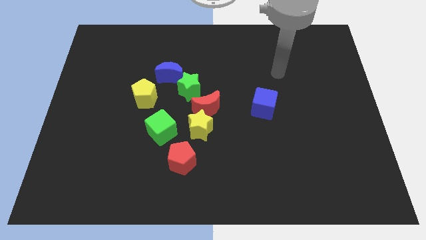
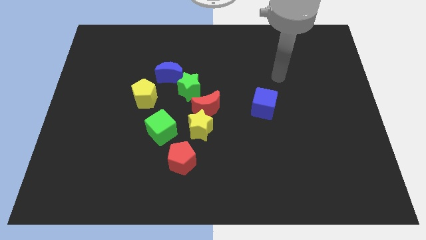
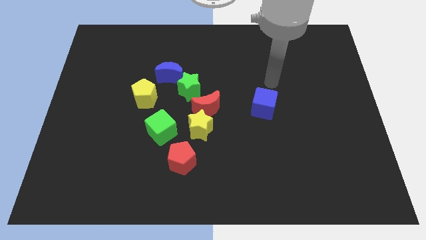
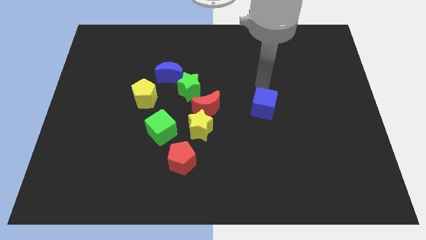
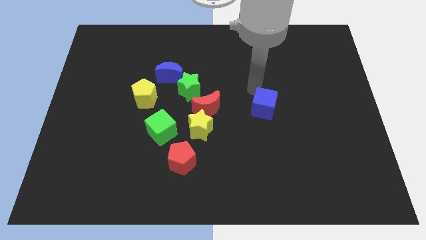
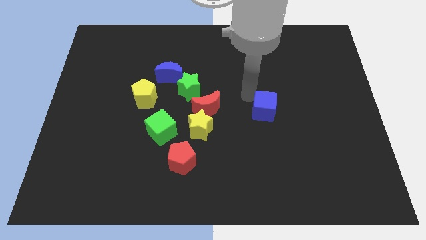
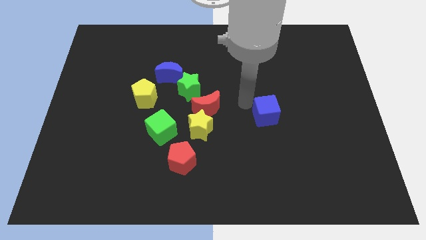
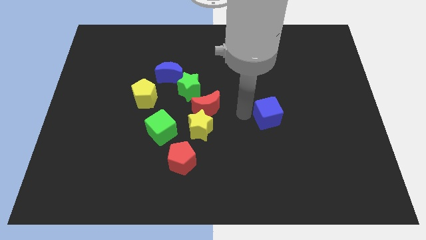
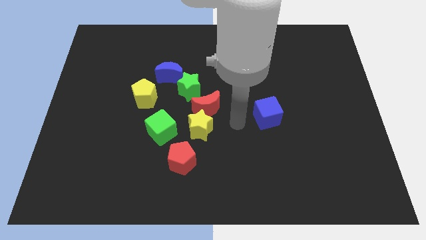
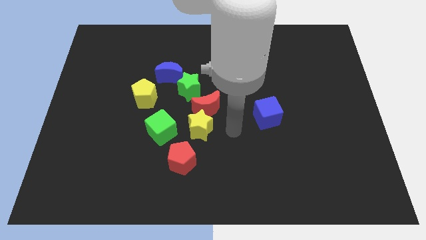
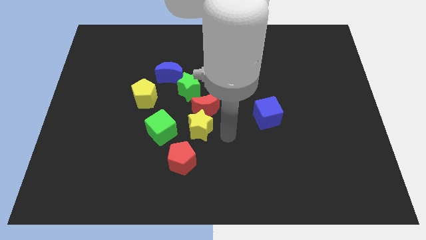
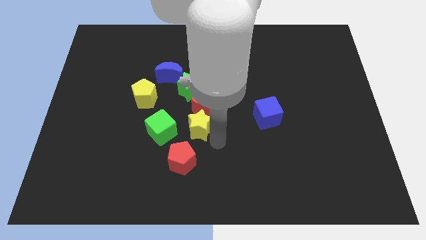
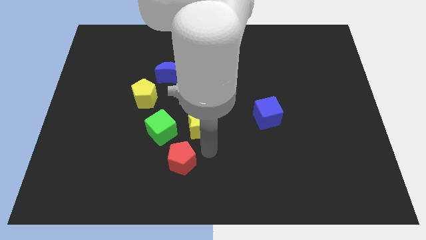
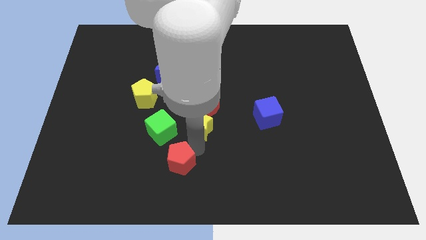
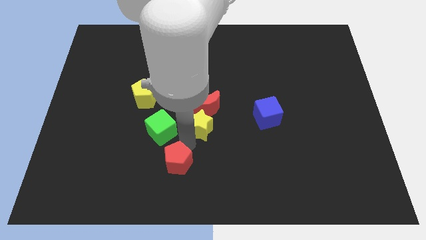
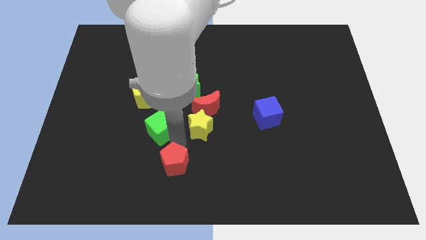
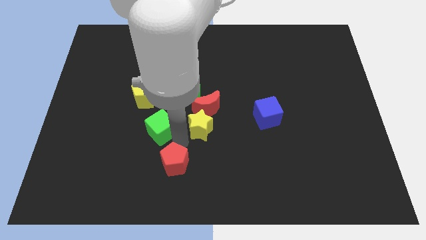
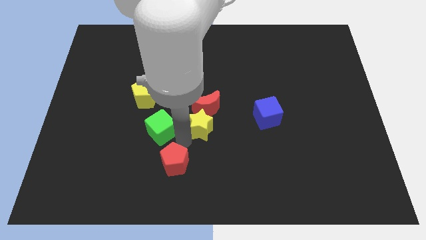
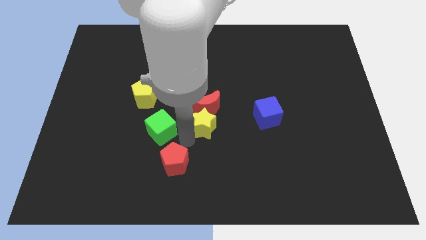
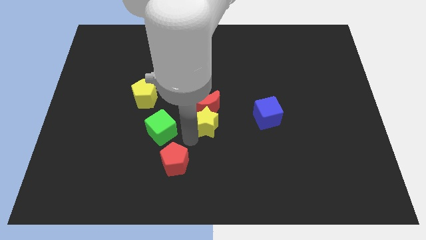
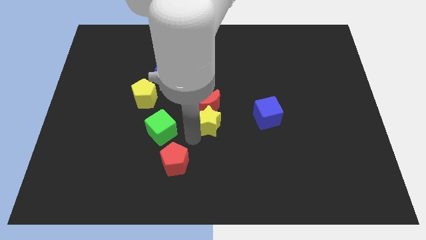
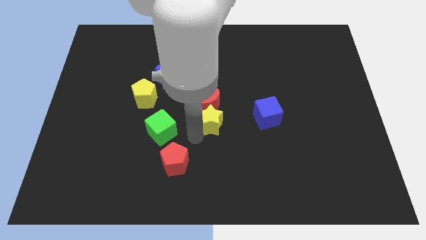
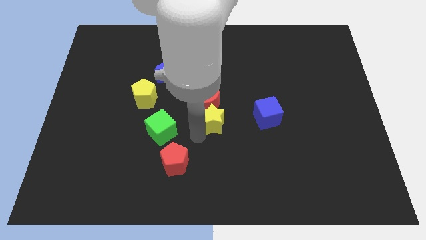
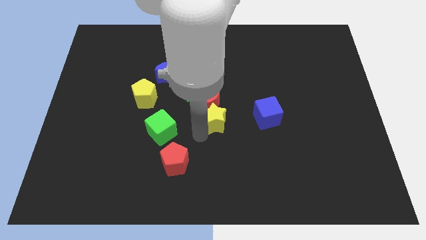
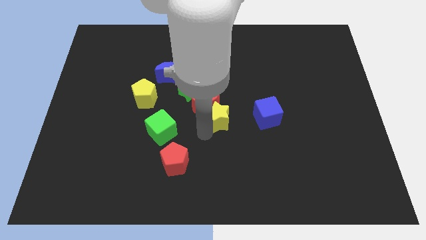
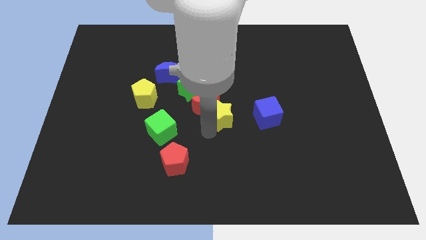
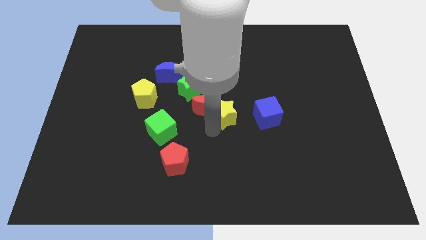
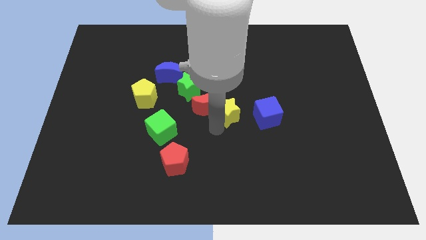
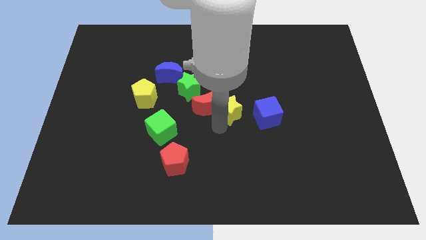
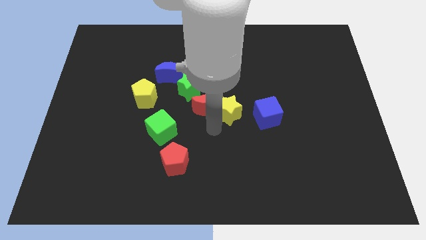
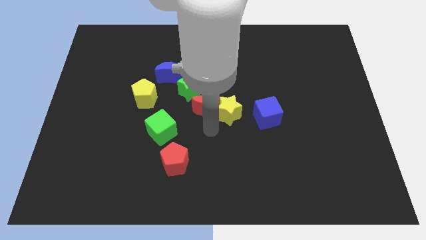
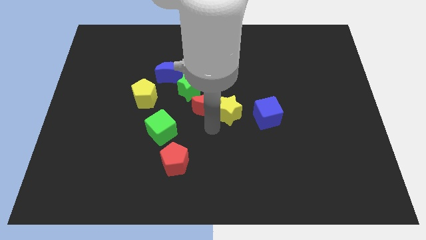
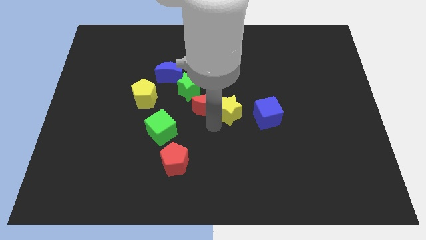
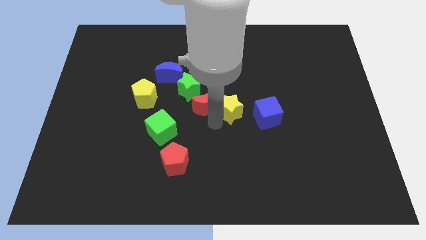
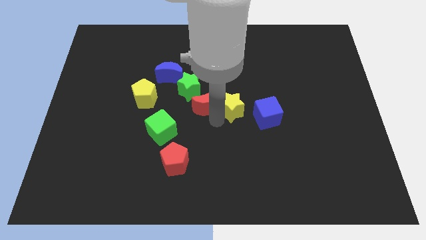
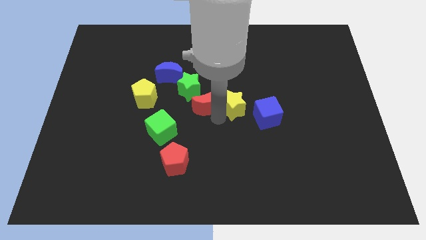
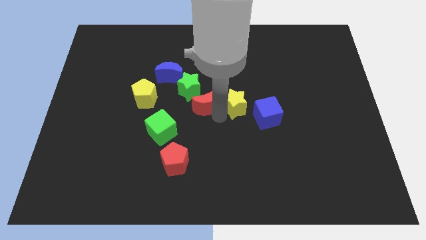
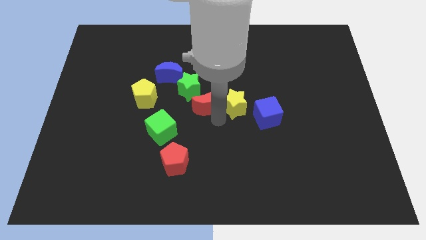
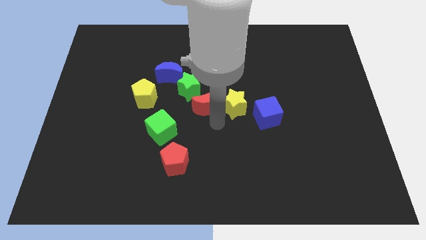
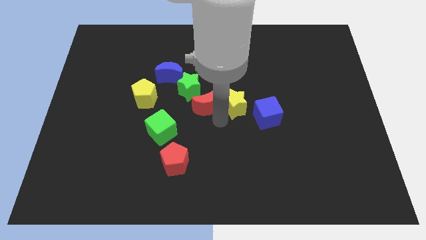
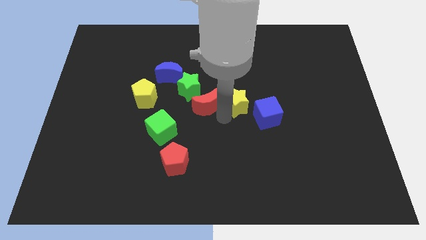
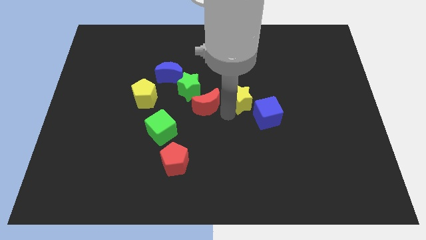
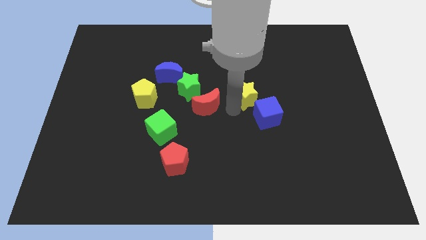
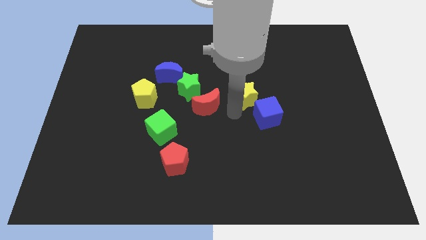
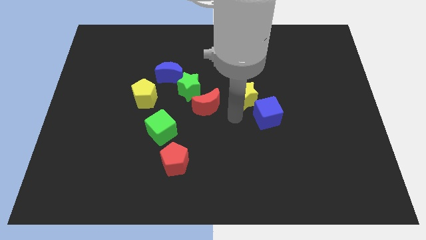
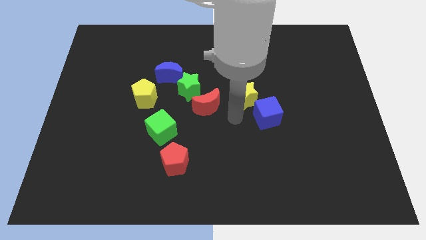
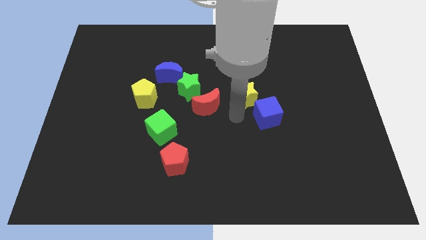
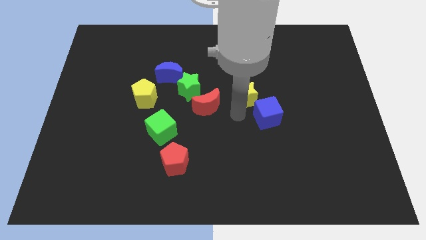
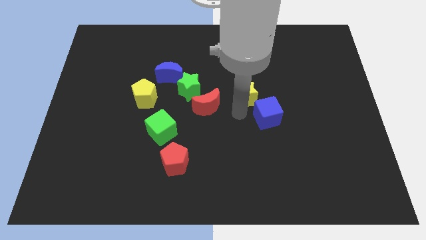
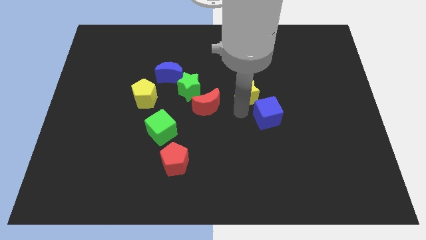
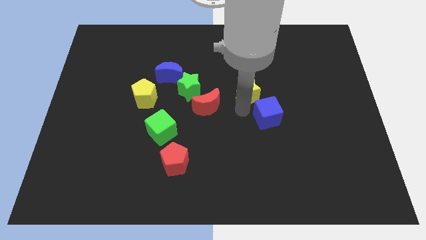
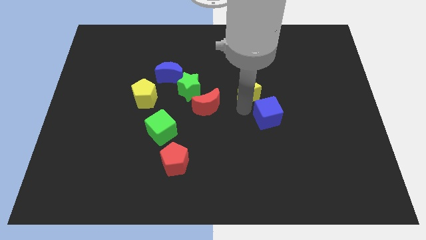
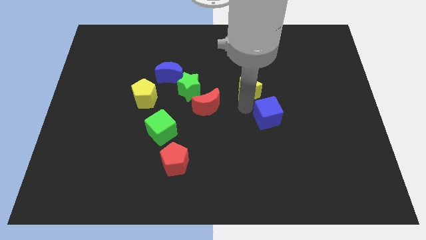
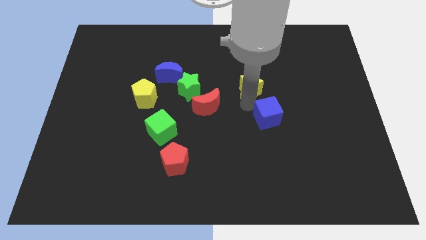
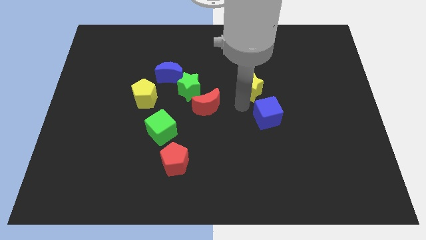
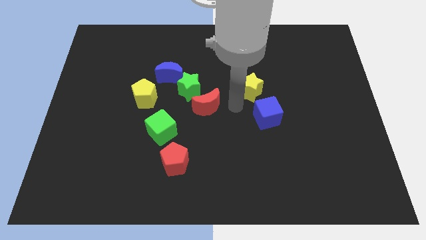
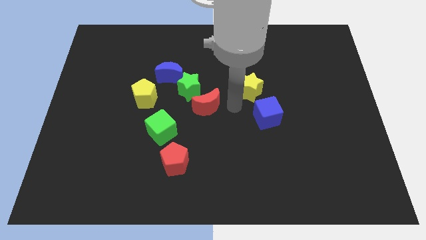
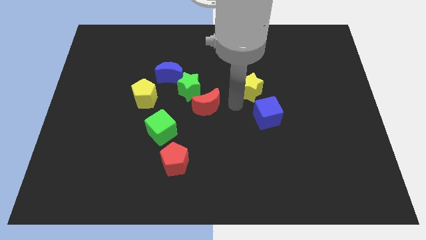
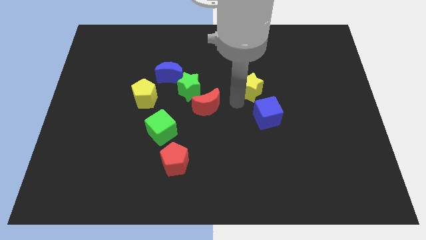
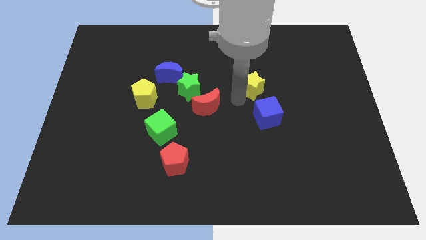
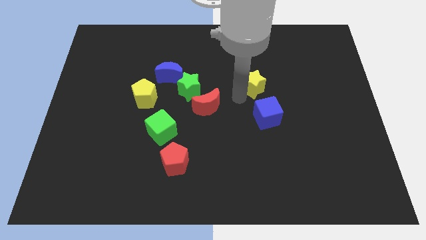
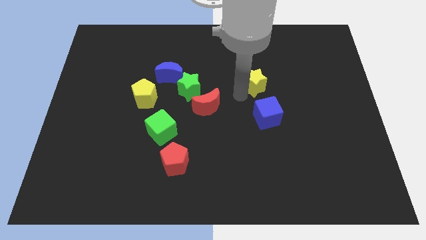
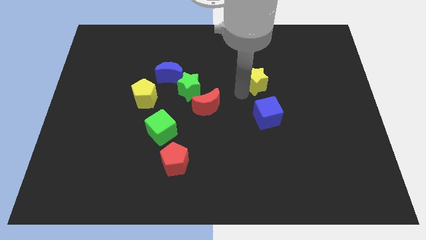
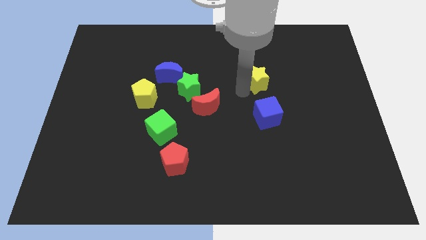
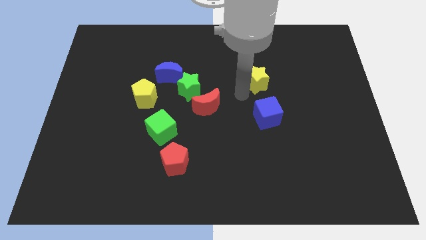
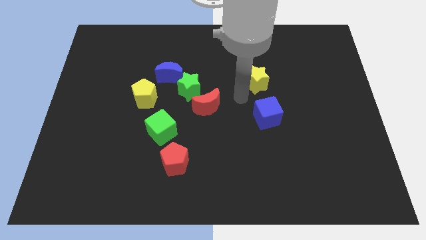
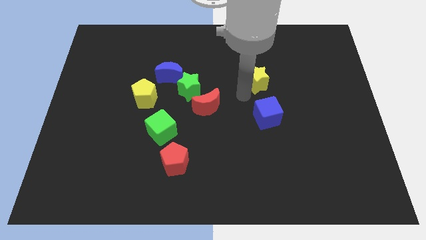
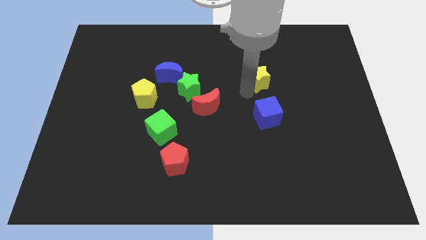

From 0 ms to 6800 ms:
move the yellow star upwards and then to the right

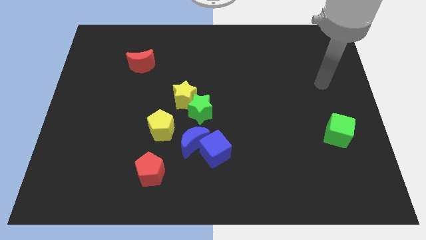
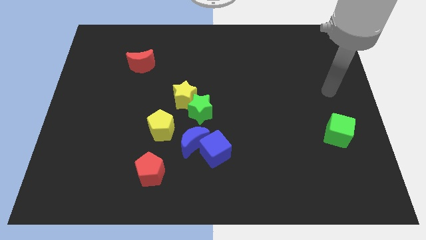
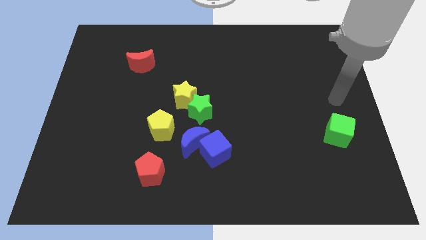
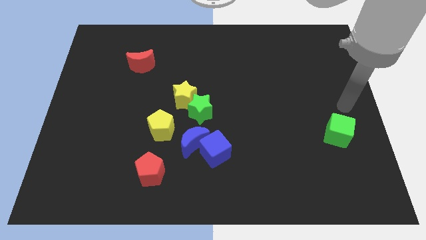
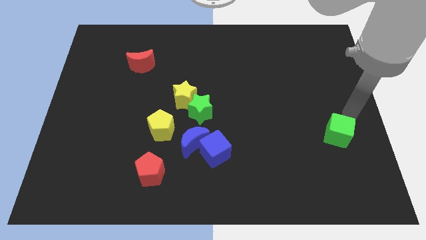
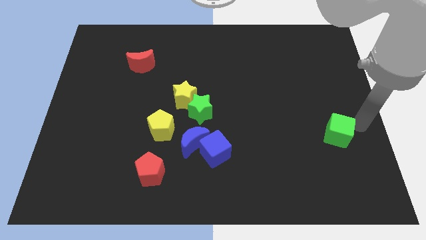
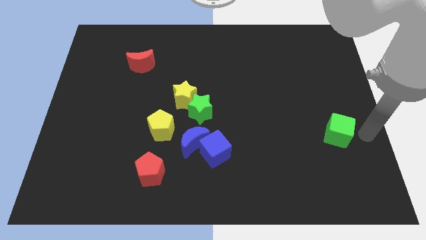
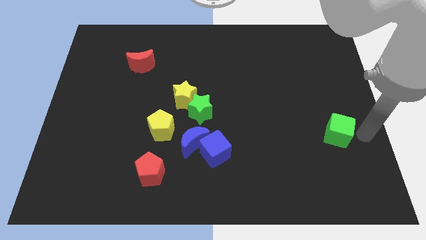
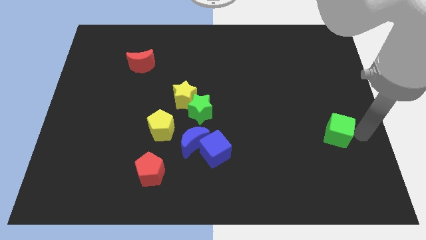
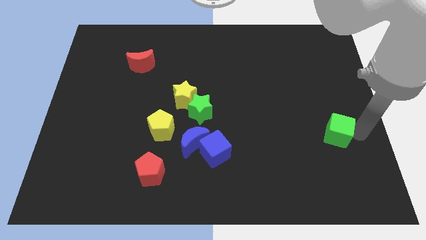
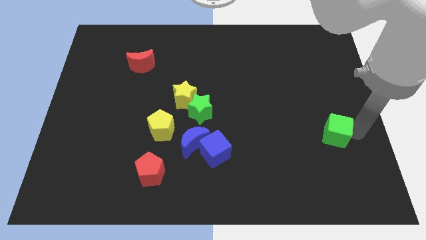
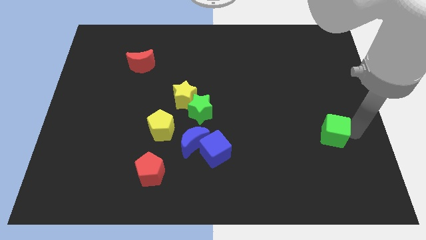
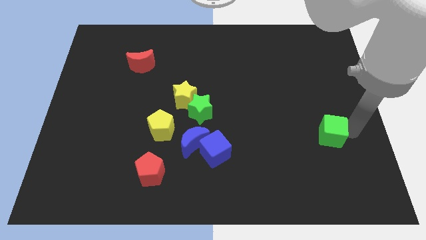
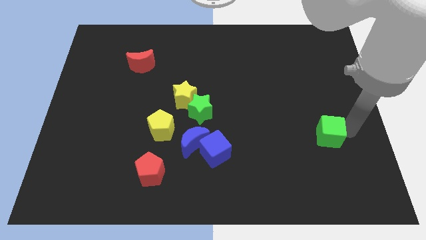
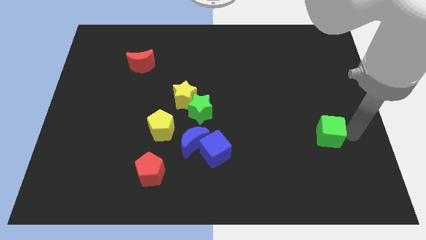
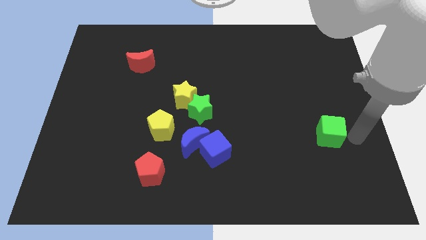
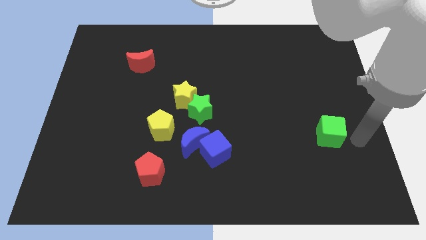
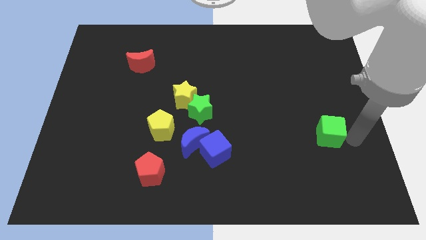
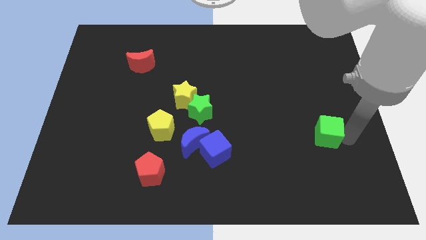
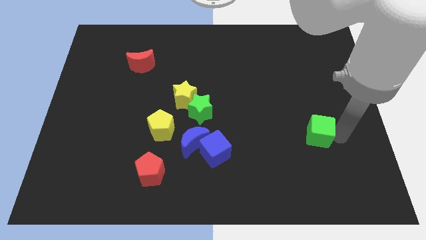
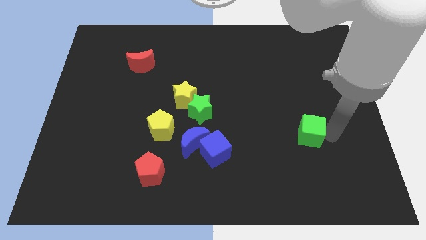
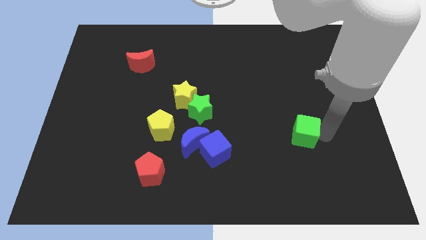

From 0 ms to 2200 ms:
slide the green cube to the left a little bit
